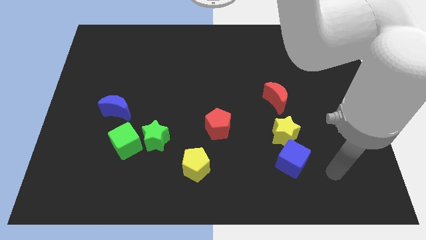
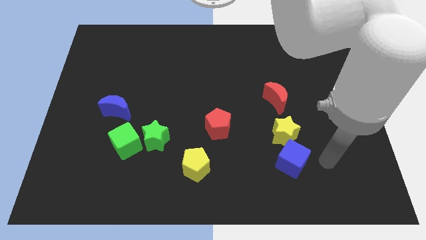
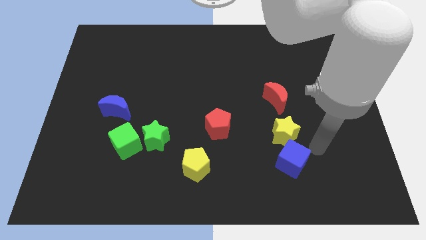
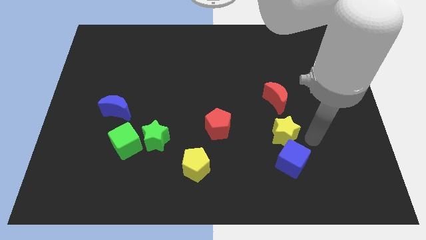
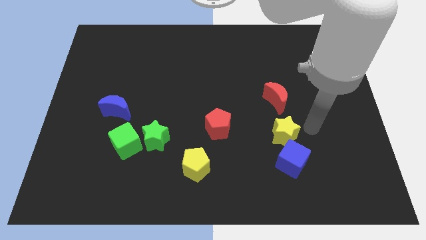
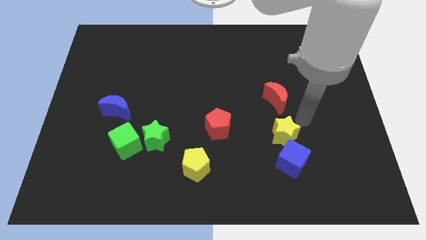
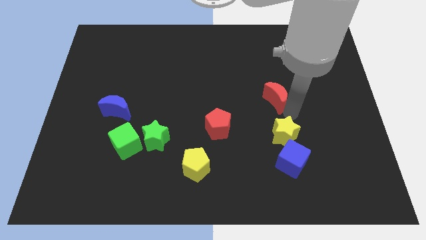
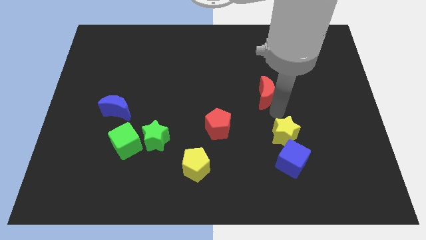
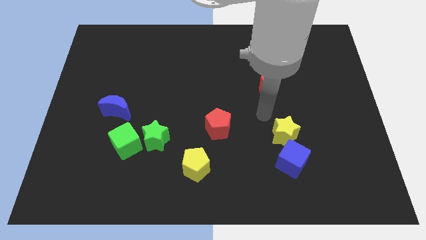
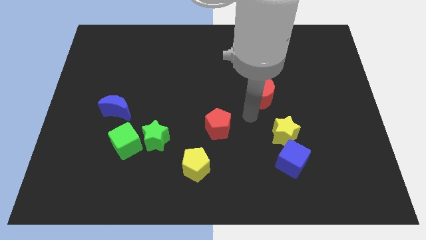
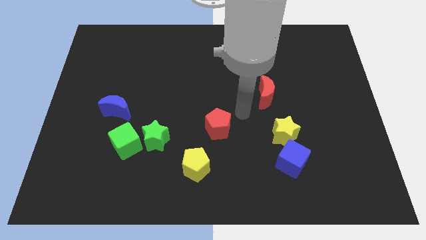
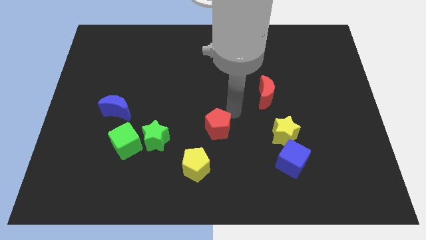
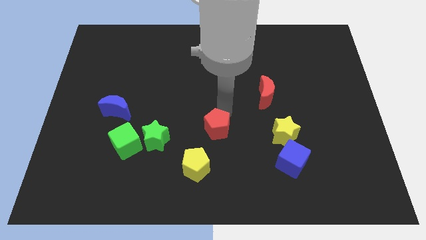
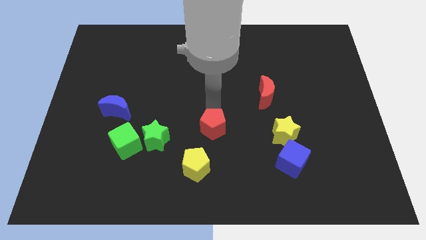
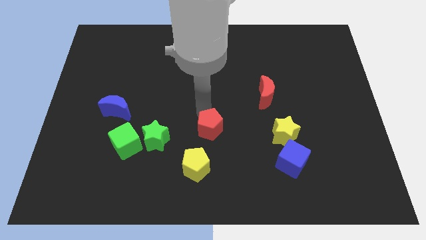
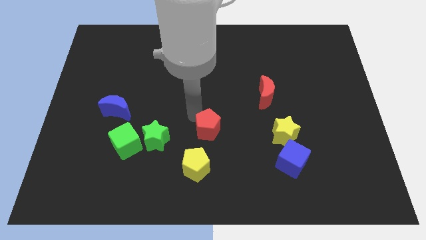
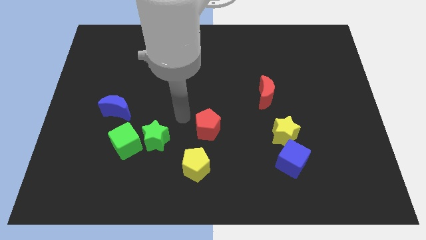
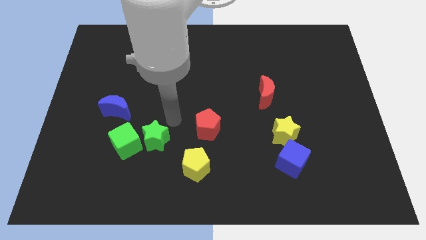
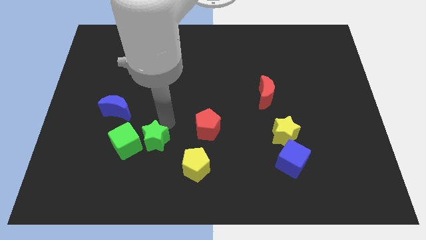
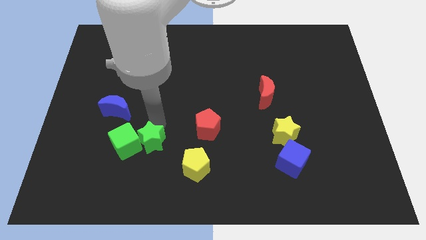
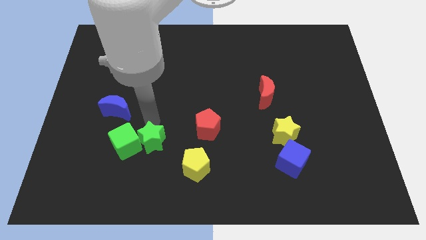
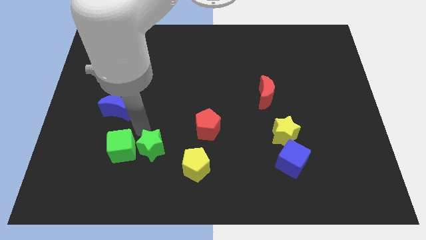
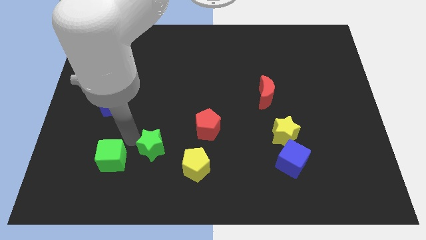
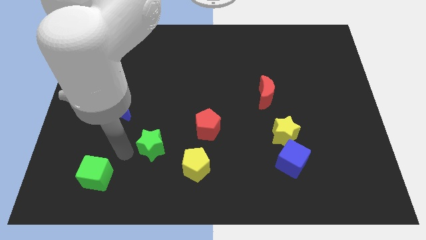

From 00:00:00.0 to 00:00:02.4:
move the green star away from the green cube

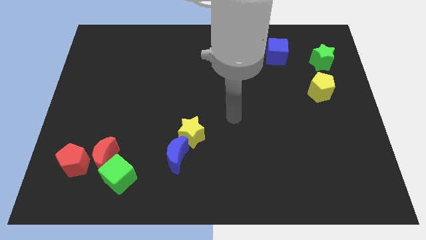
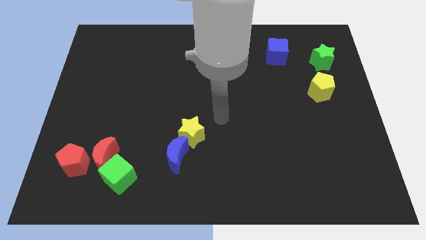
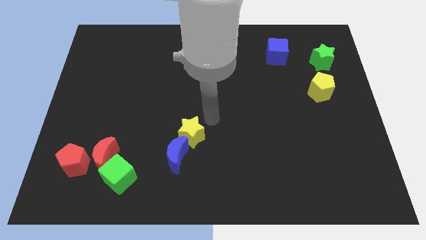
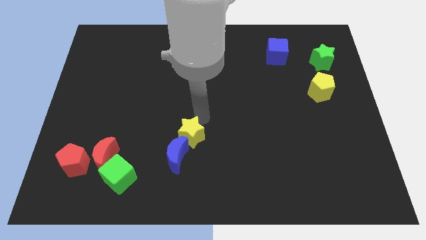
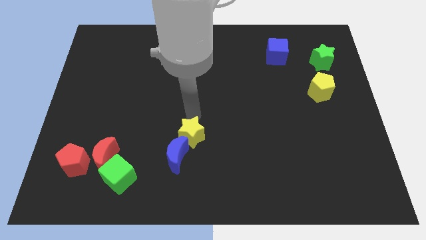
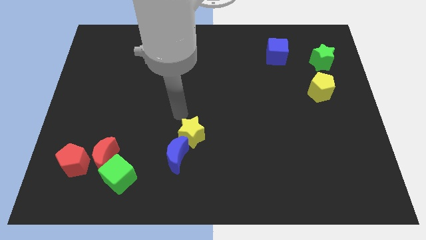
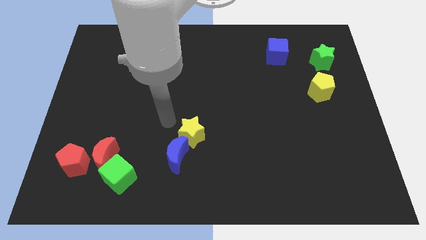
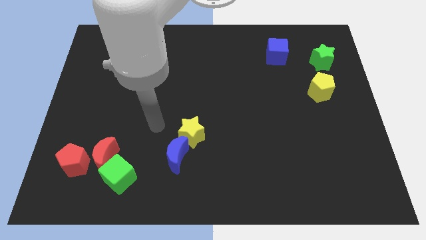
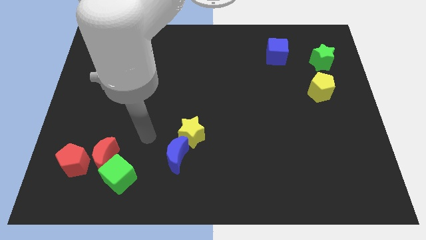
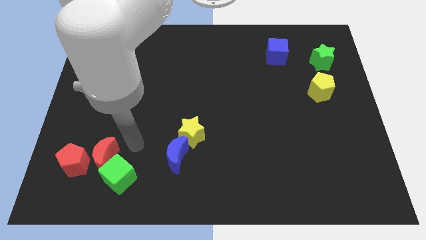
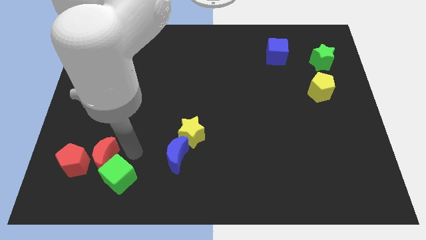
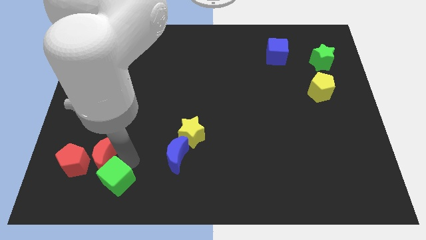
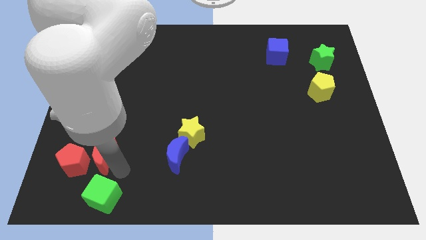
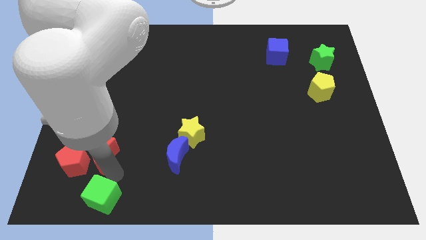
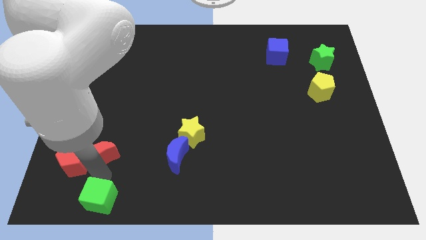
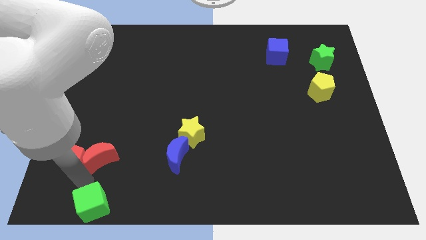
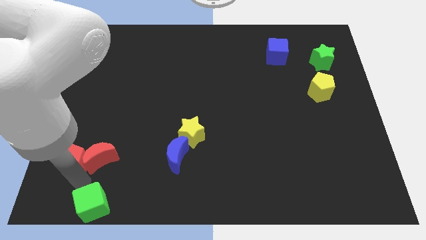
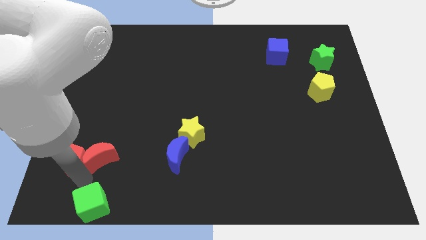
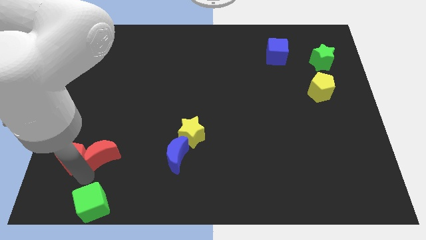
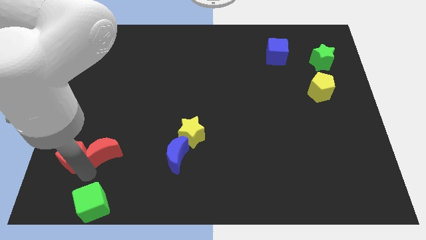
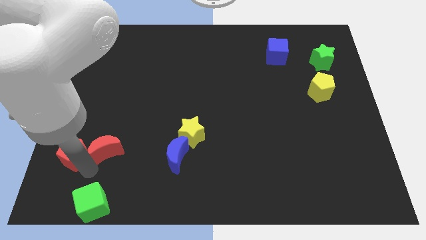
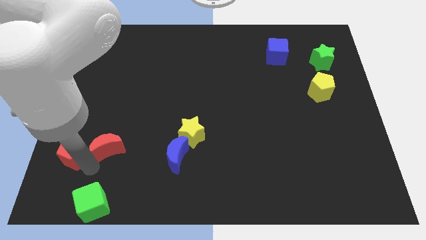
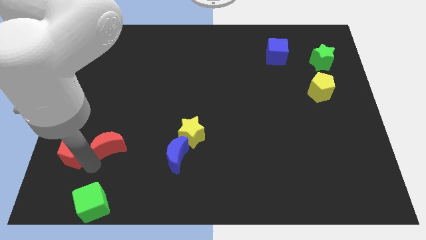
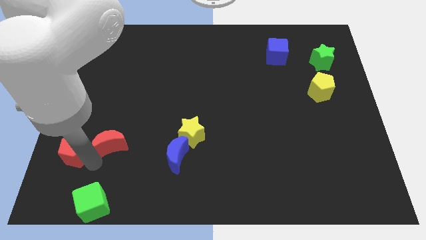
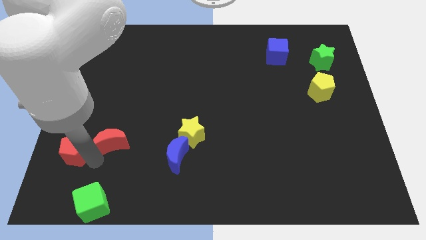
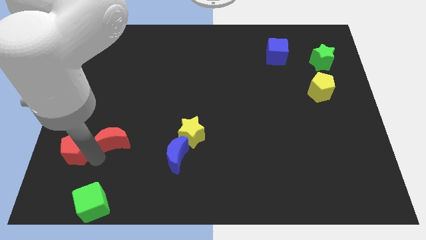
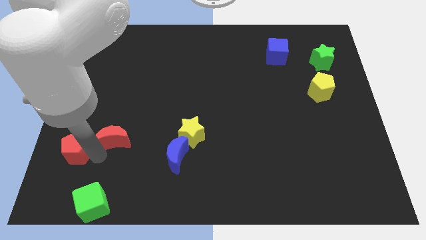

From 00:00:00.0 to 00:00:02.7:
pull the red moon apart from the green cube and red pentagon

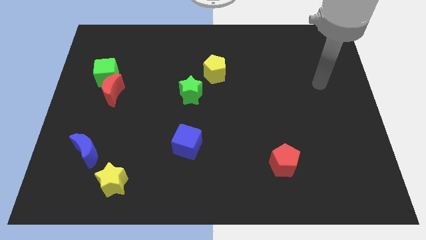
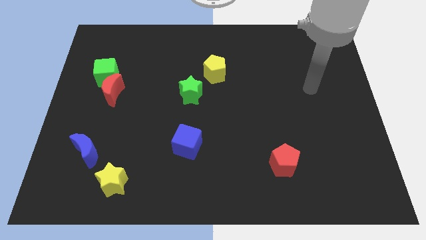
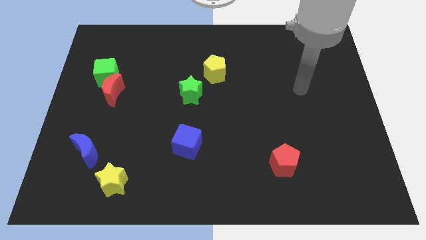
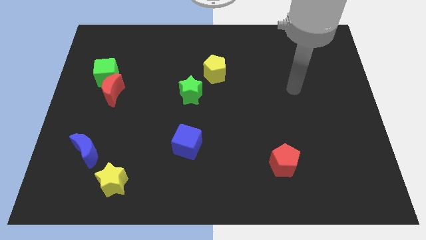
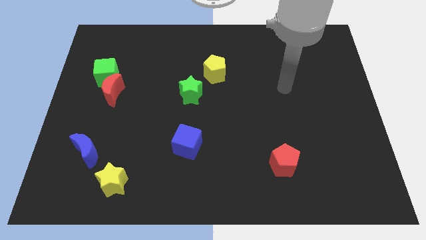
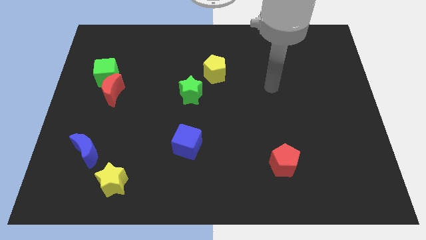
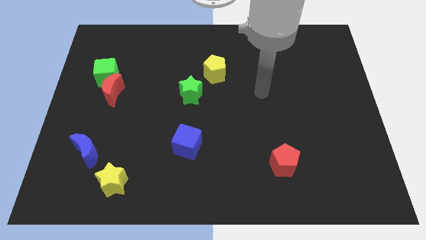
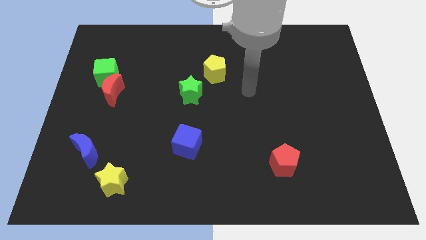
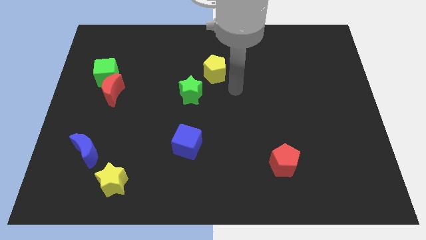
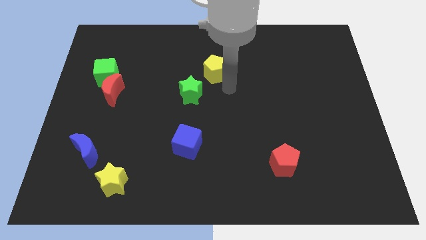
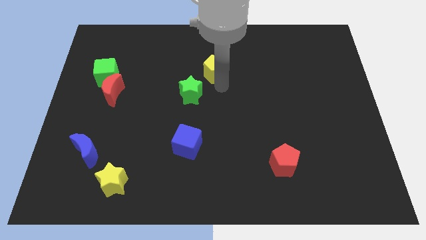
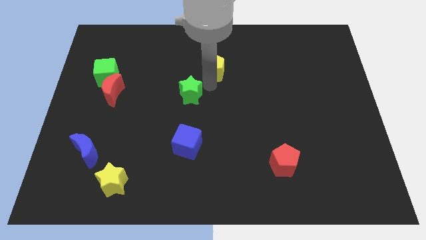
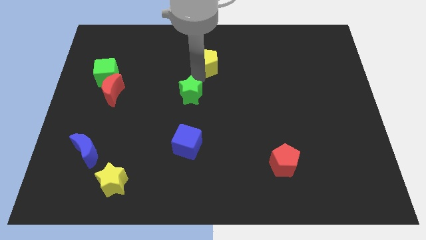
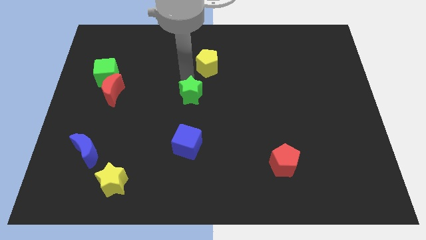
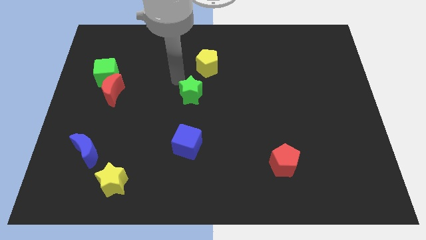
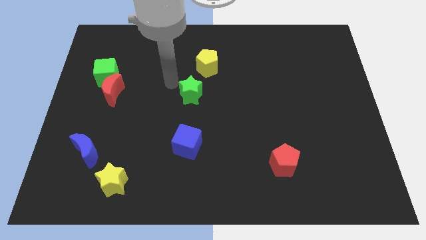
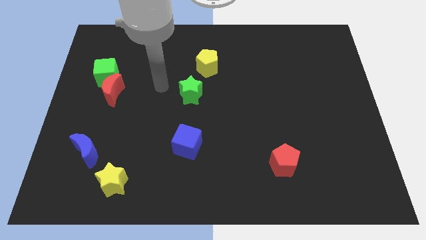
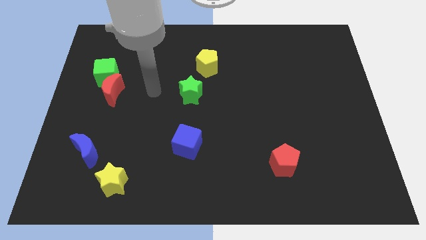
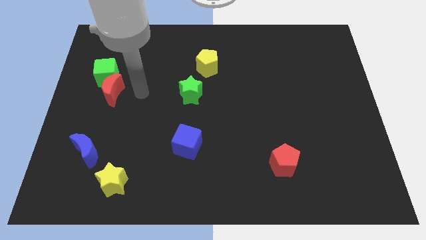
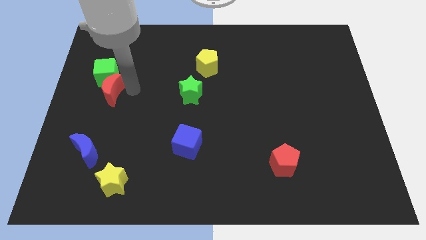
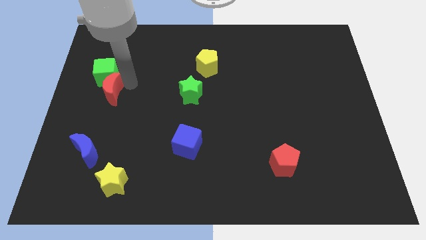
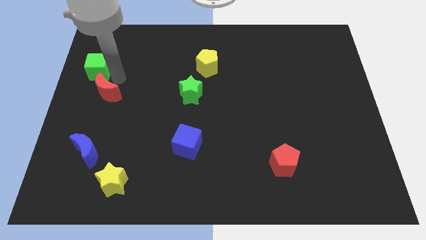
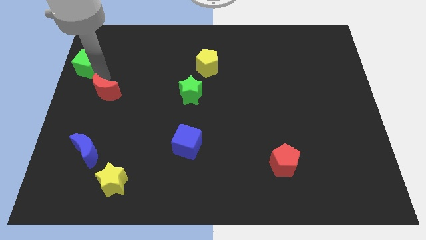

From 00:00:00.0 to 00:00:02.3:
pull the red moon apart from the green cube

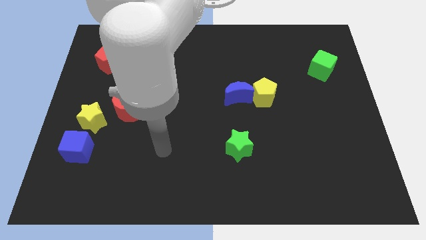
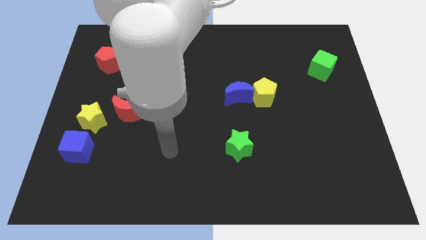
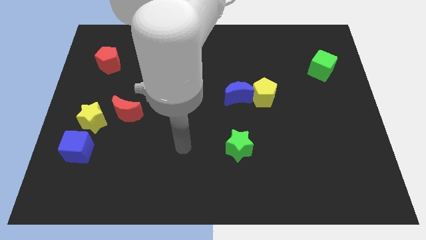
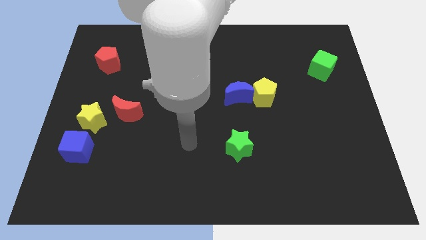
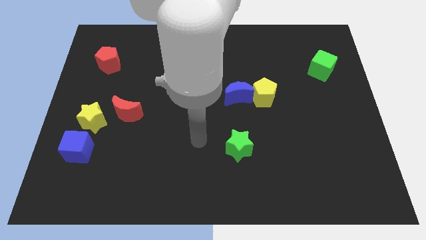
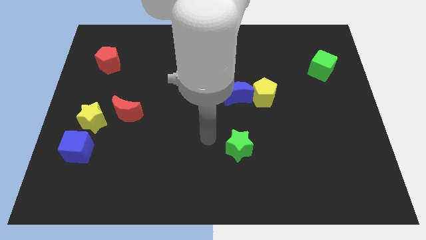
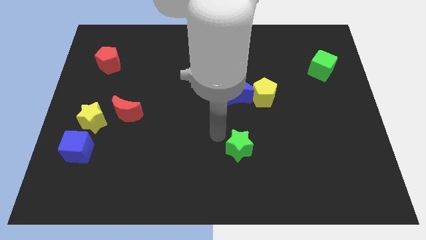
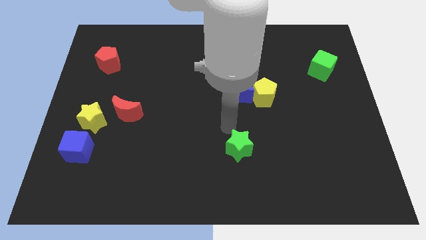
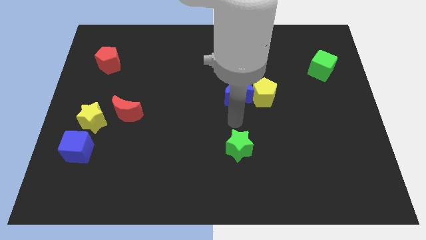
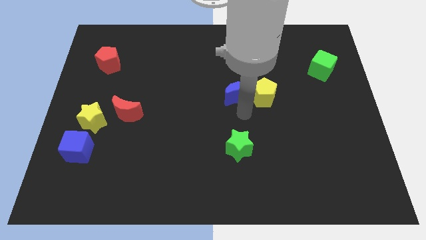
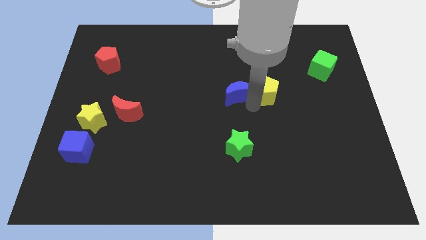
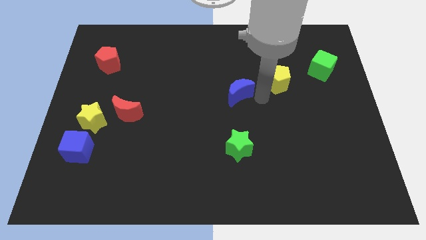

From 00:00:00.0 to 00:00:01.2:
move the blue moon away from the yellow pentagon

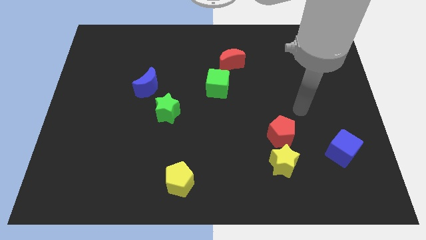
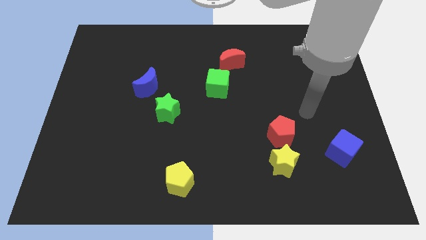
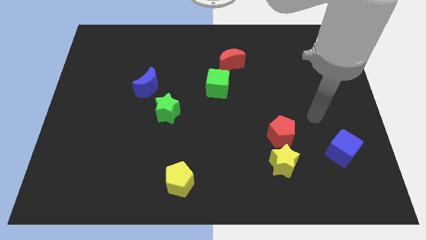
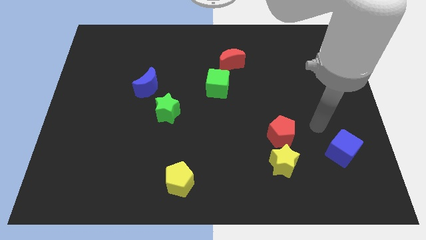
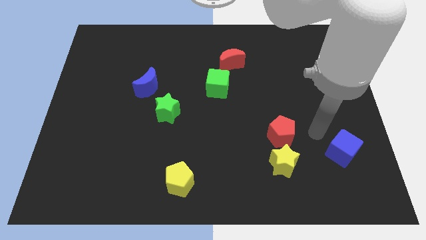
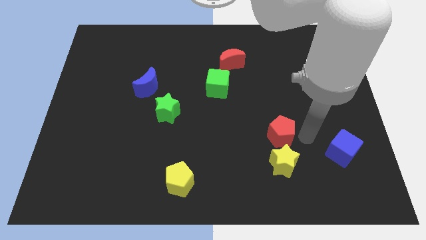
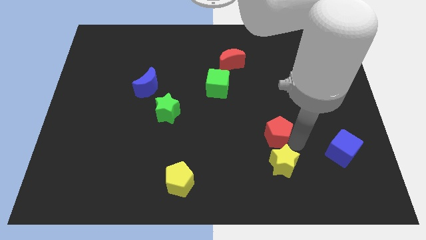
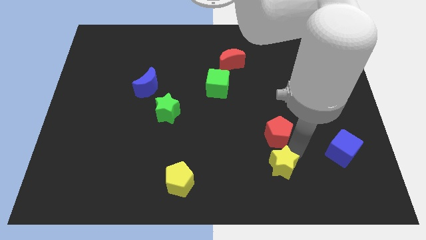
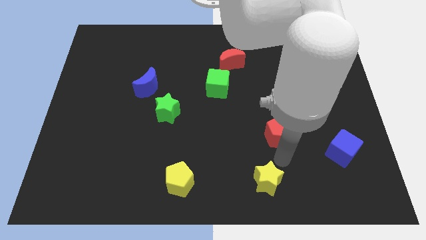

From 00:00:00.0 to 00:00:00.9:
move the red pentagon away from the yellow star

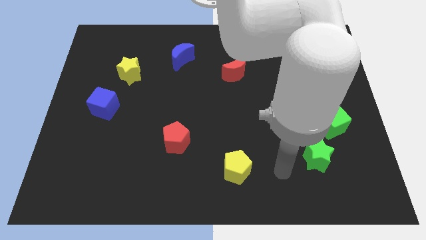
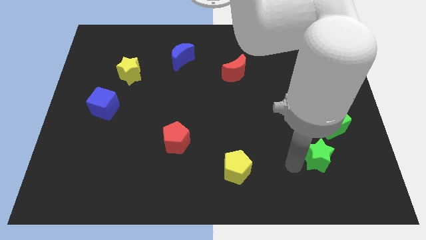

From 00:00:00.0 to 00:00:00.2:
pull the green cube apart from the green star
